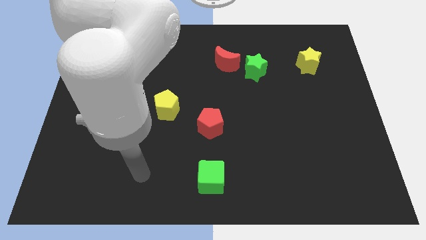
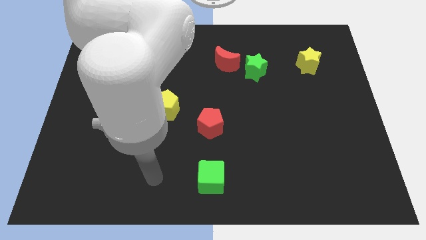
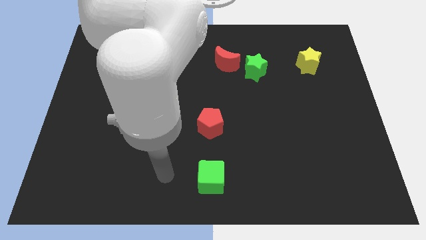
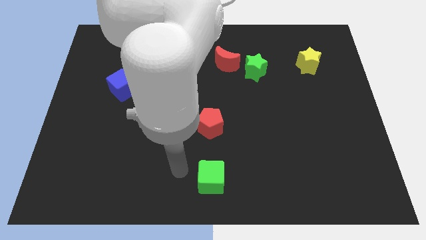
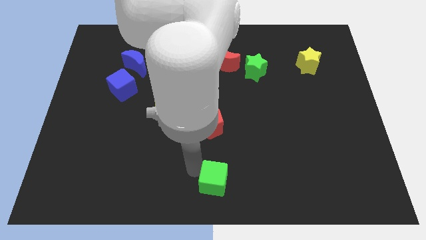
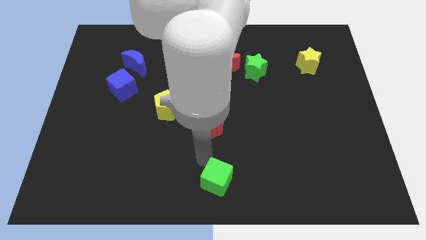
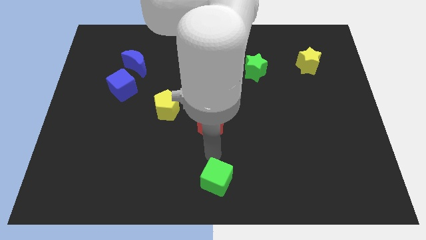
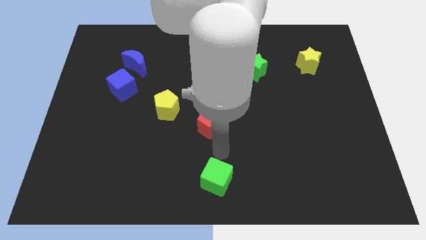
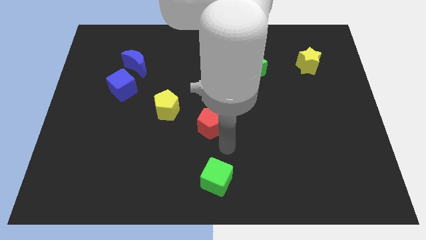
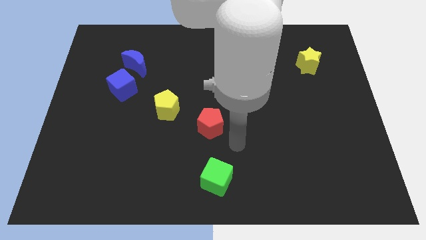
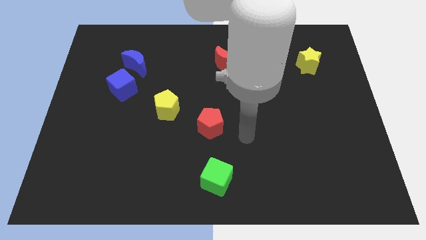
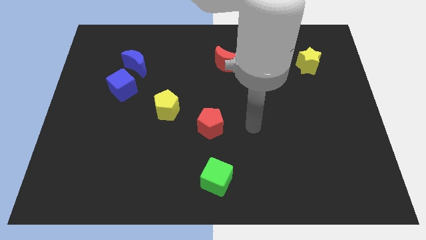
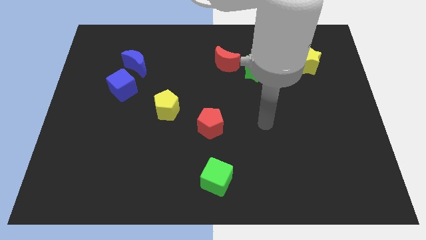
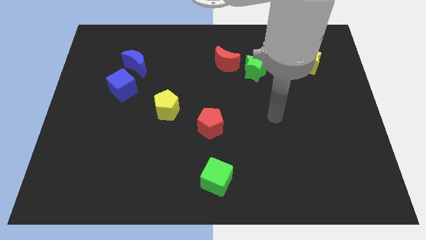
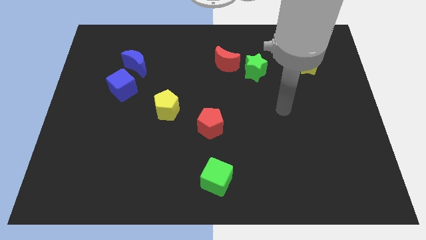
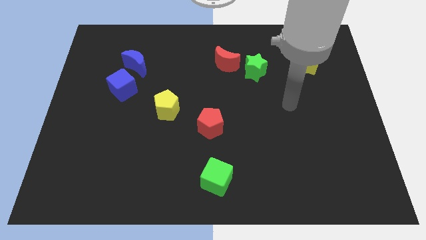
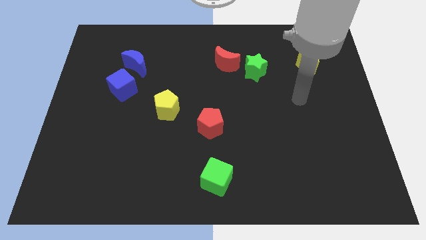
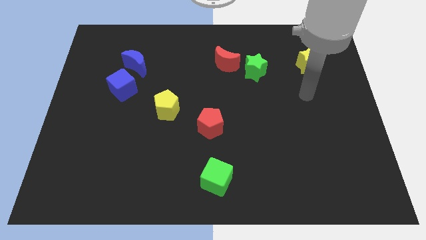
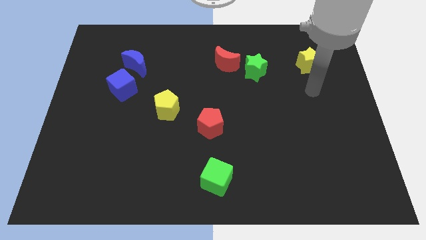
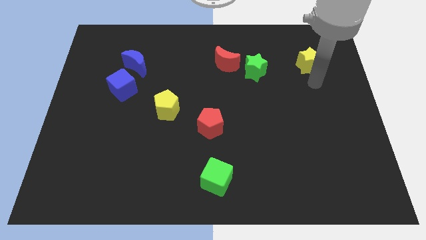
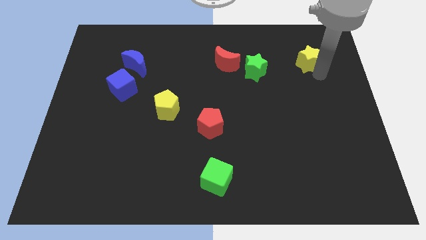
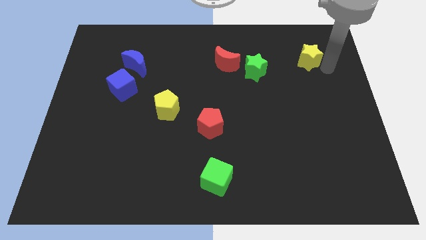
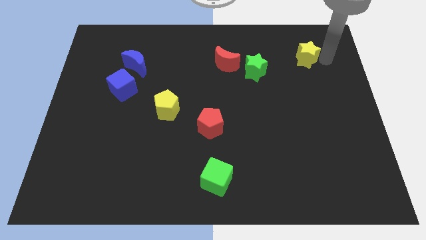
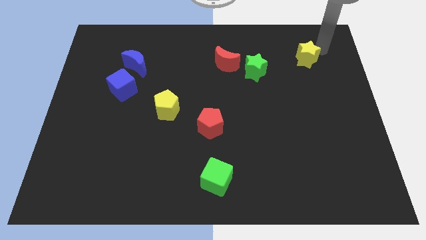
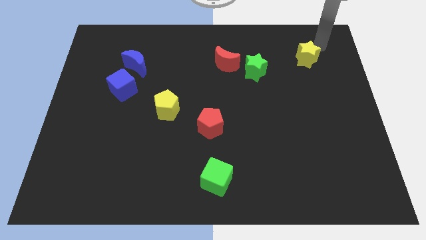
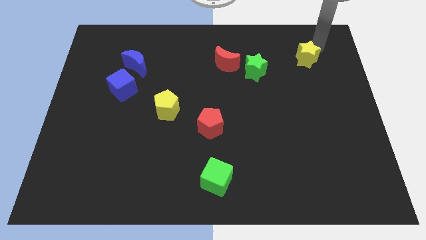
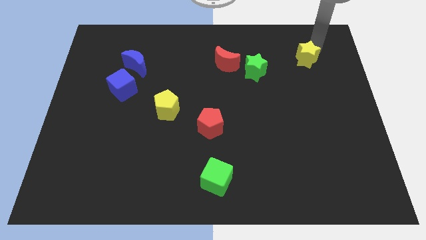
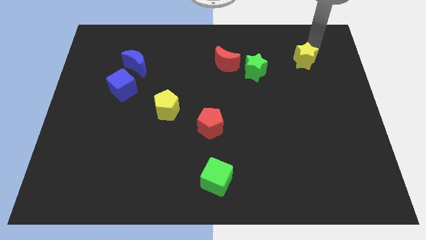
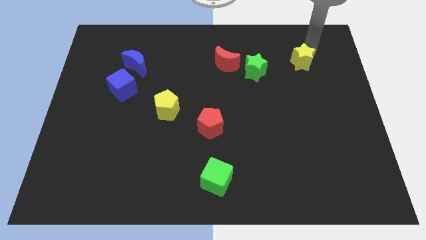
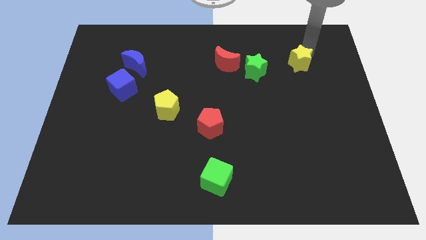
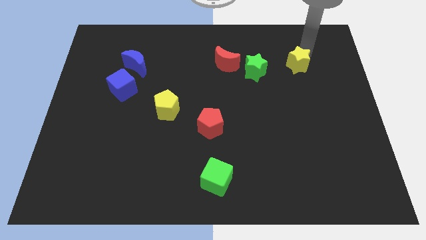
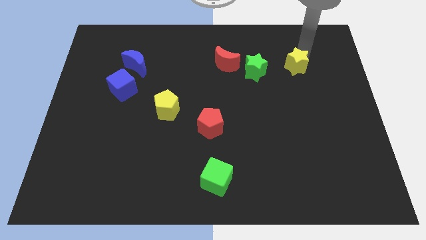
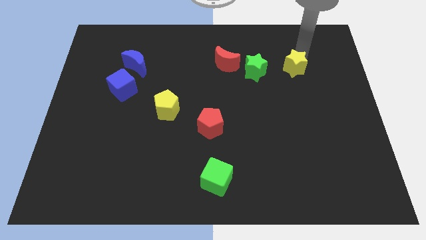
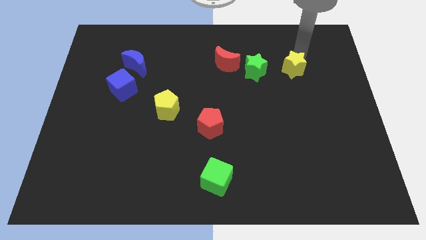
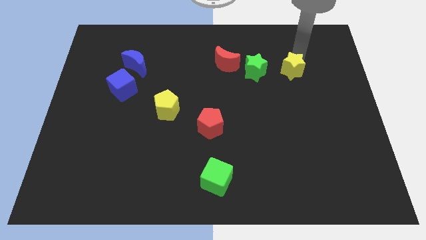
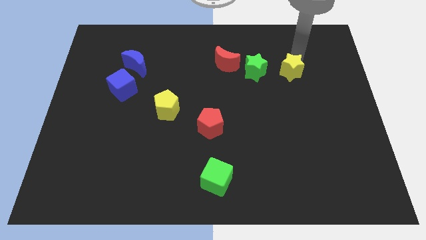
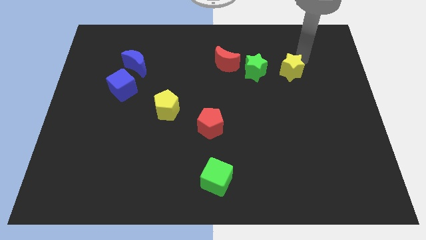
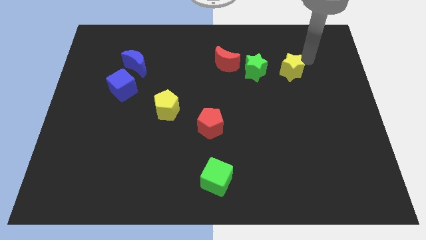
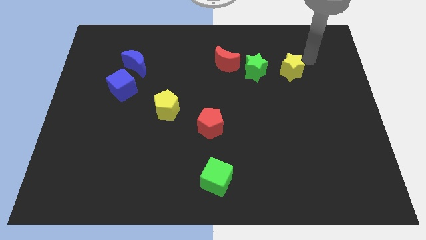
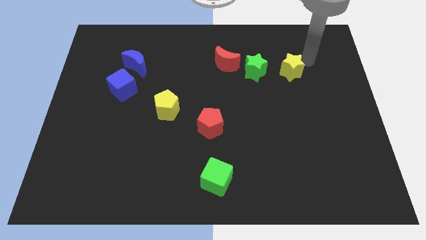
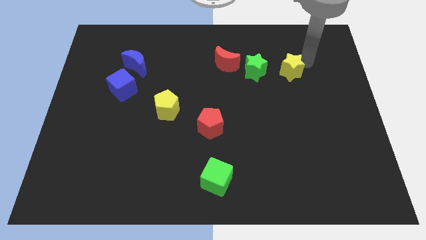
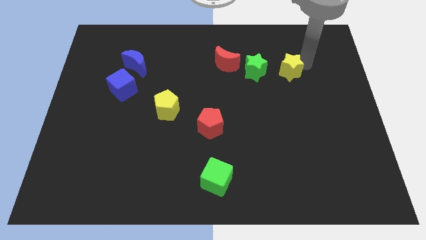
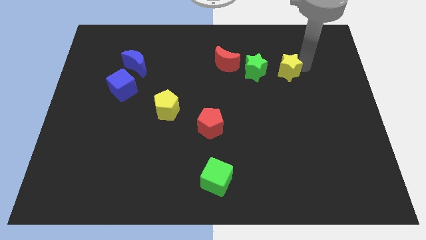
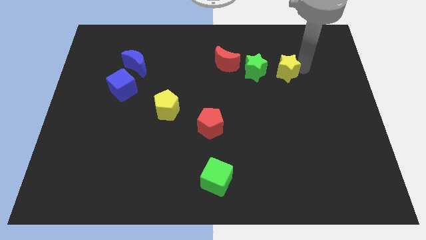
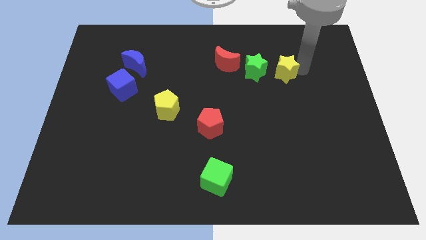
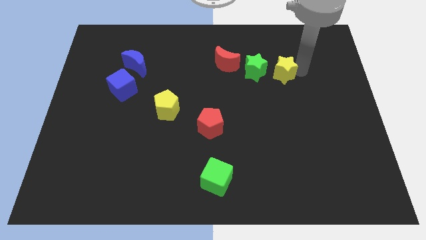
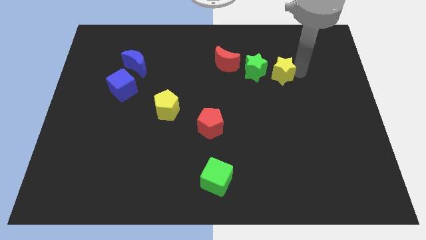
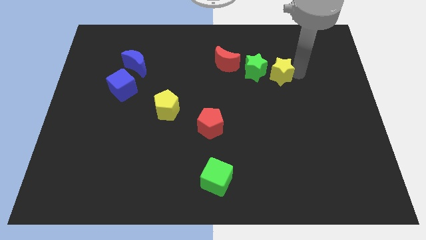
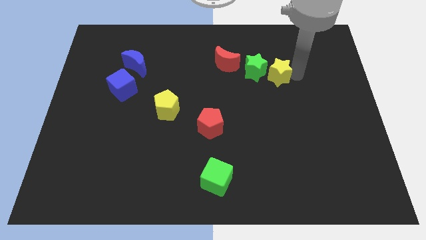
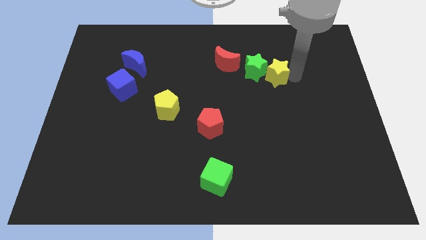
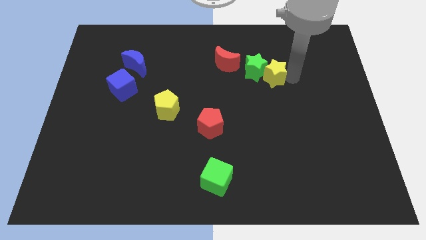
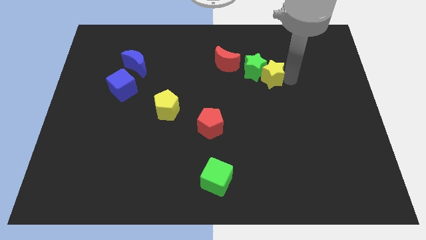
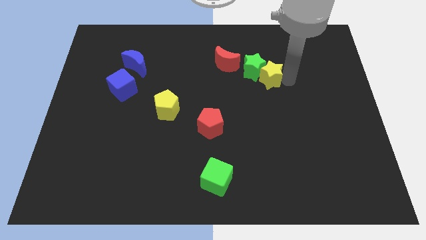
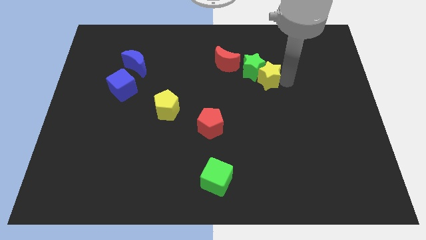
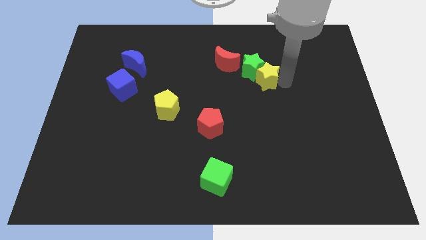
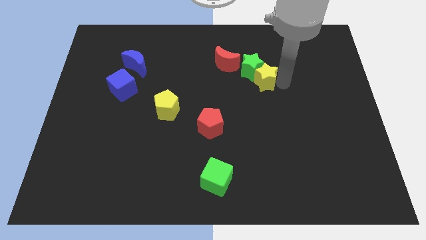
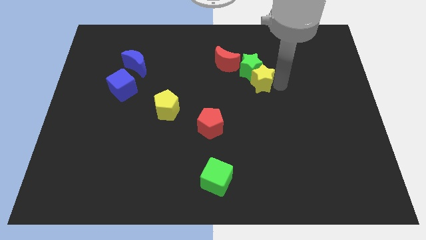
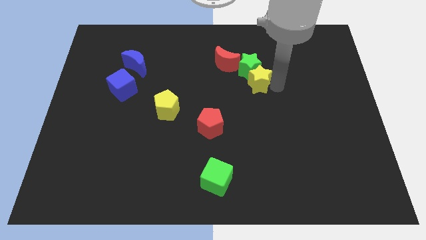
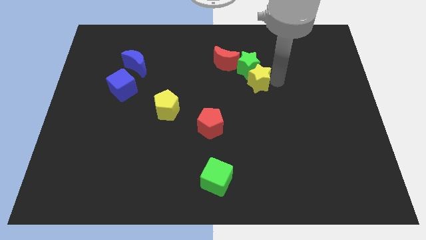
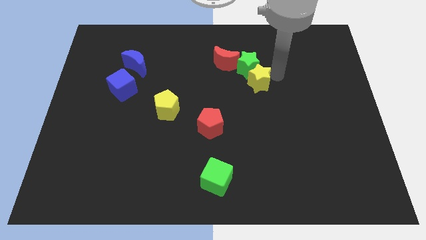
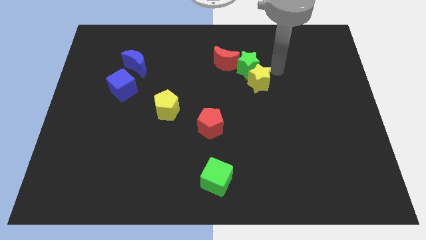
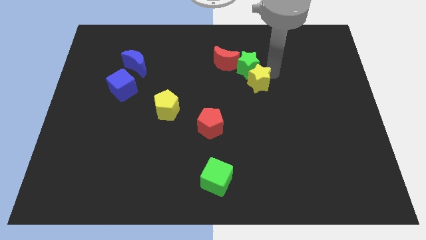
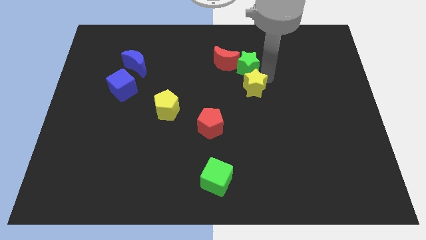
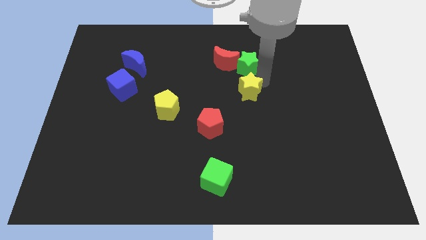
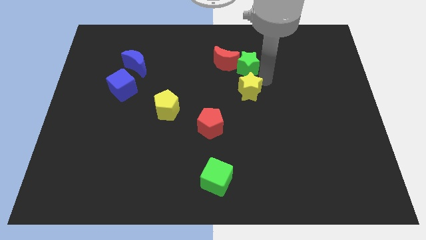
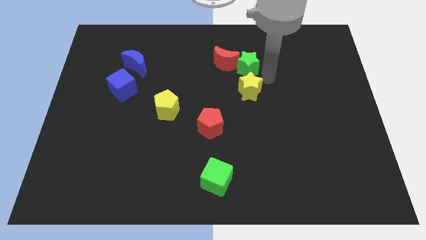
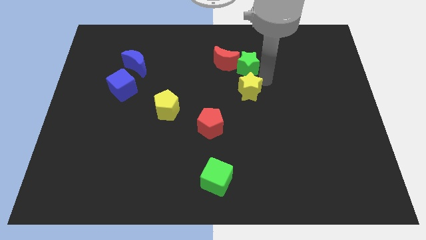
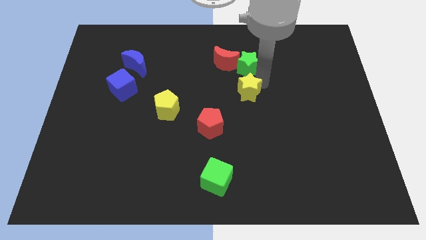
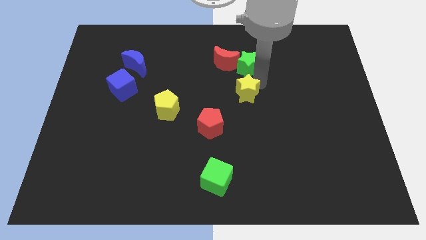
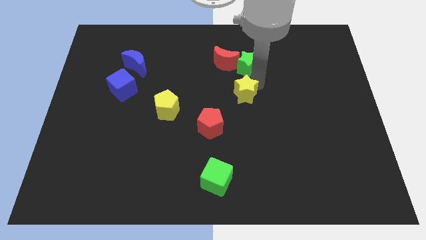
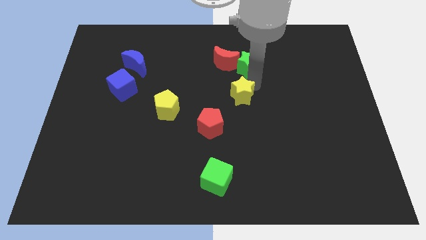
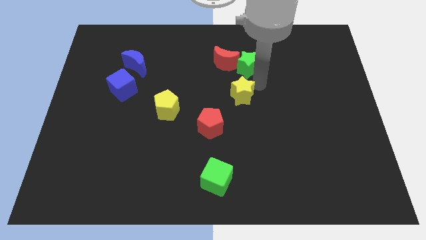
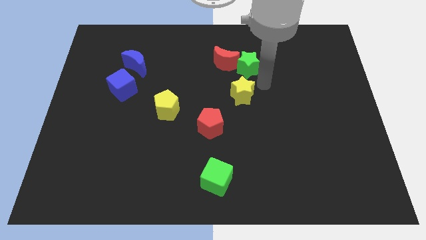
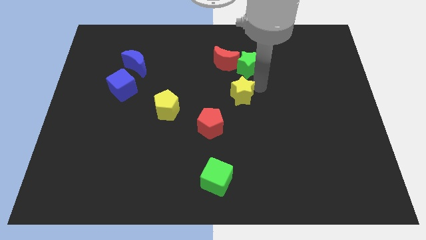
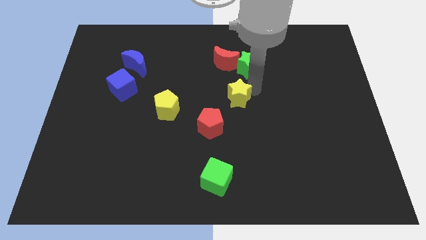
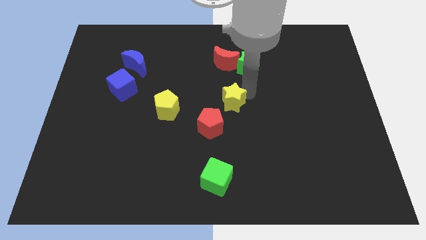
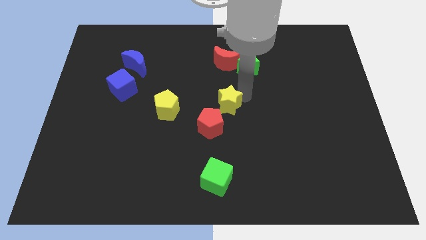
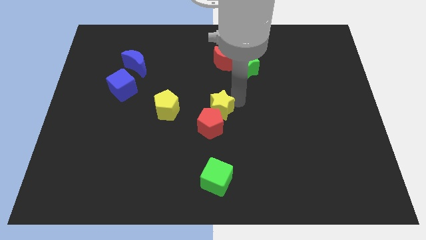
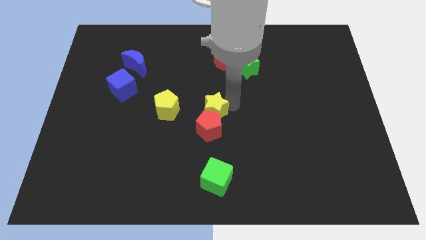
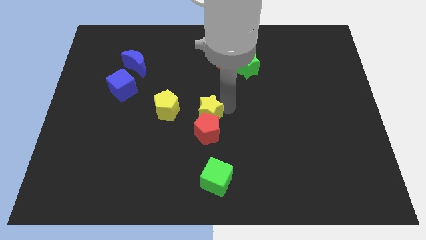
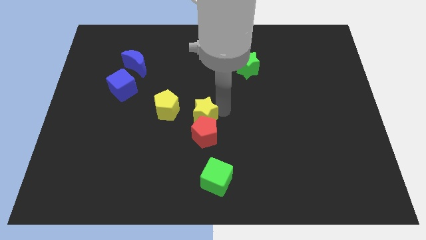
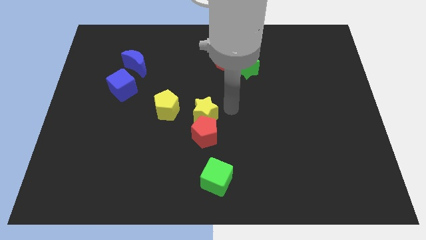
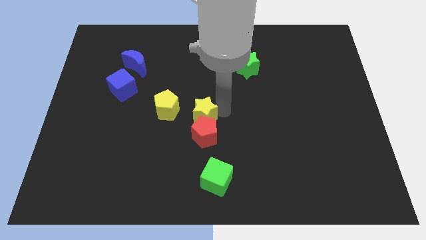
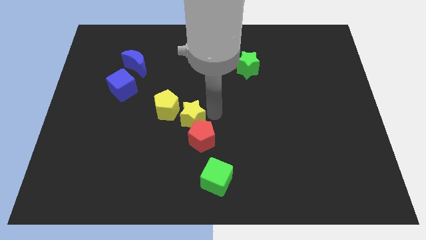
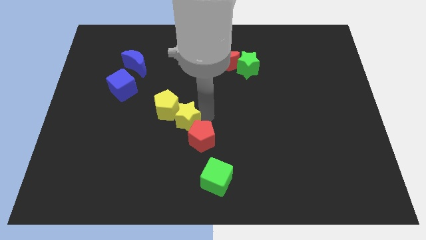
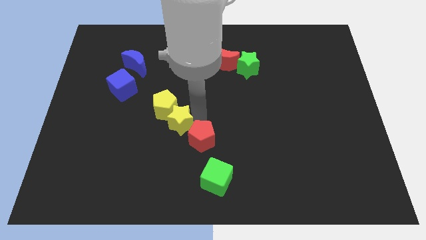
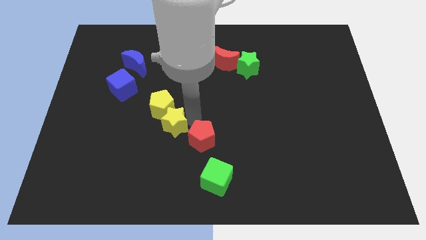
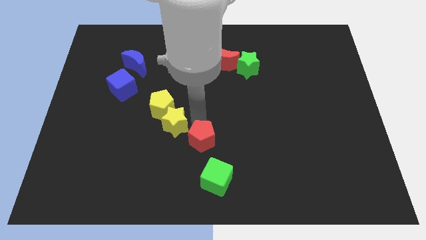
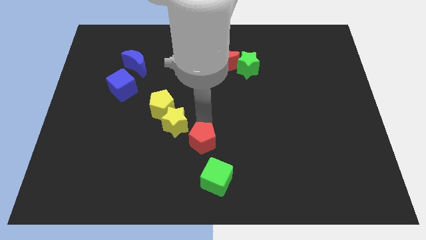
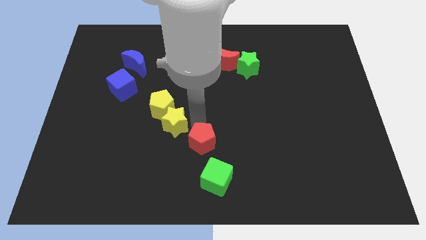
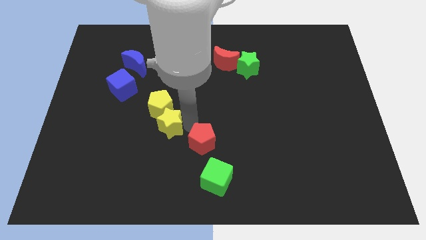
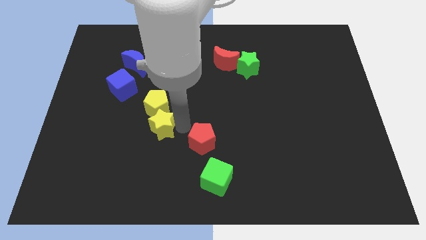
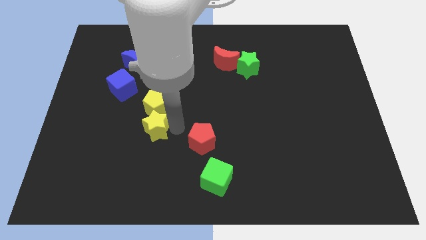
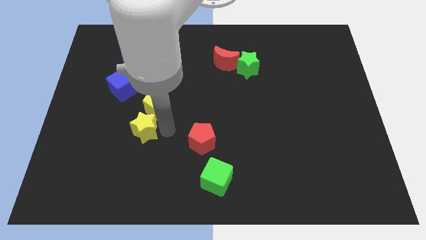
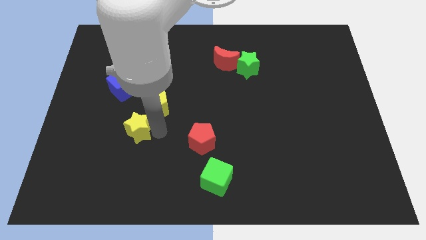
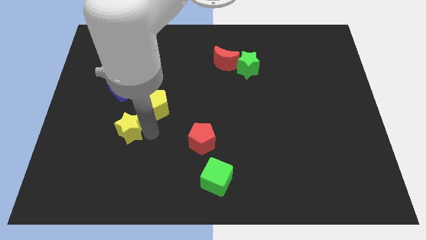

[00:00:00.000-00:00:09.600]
slide the yellow star below the blue cube
